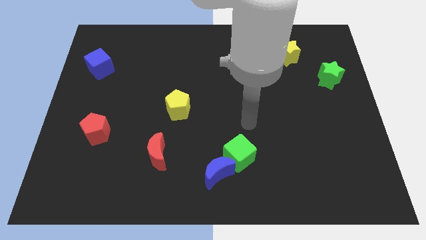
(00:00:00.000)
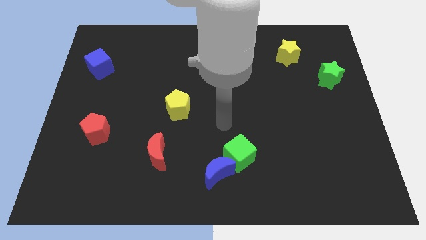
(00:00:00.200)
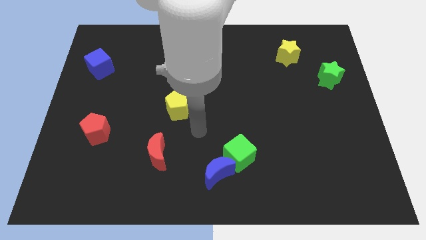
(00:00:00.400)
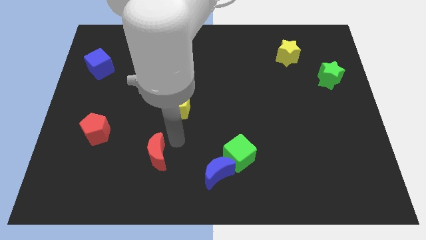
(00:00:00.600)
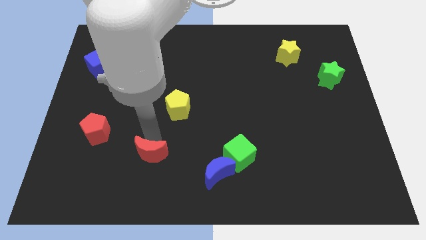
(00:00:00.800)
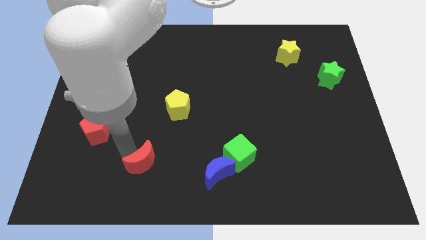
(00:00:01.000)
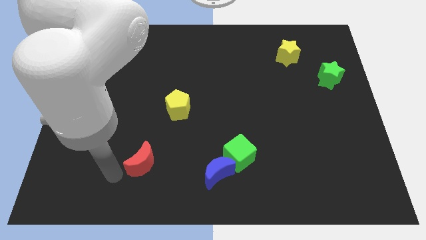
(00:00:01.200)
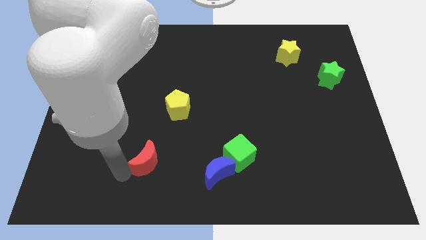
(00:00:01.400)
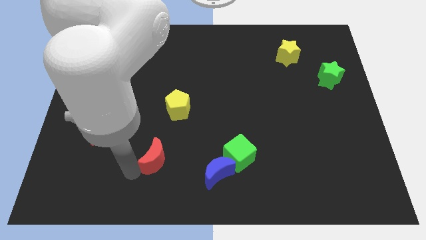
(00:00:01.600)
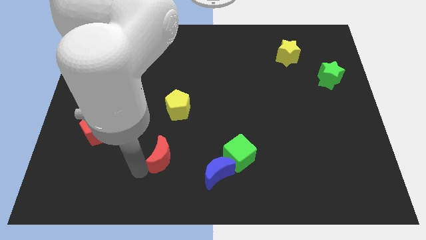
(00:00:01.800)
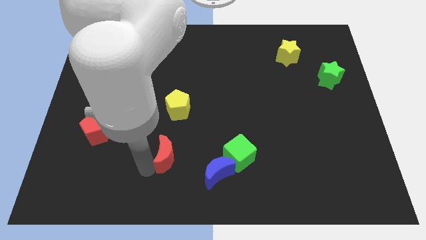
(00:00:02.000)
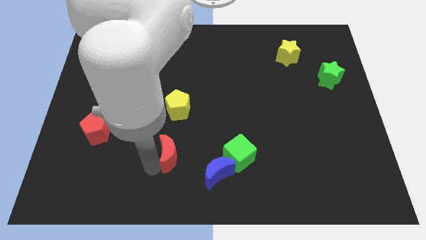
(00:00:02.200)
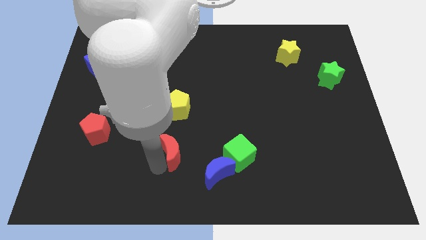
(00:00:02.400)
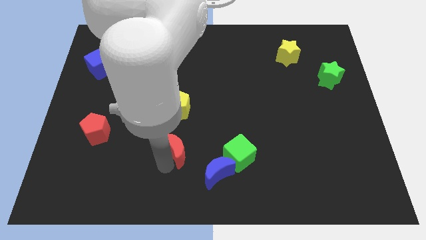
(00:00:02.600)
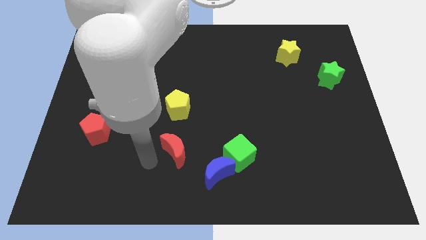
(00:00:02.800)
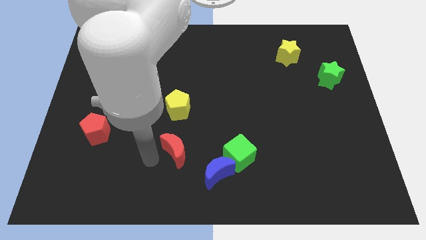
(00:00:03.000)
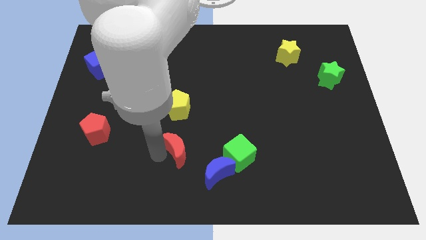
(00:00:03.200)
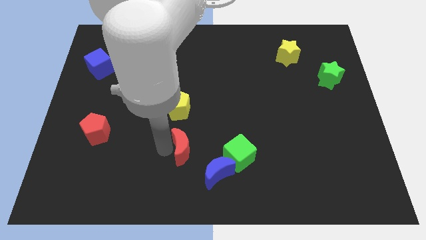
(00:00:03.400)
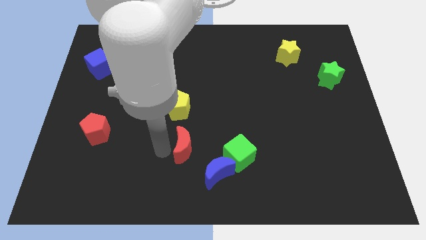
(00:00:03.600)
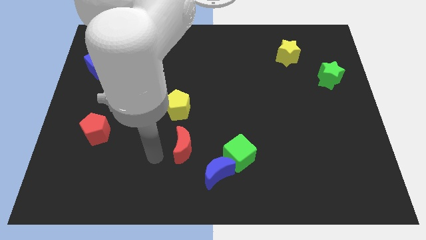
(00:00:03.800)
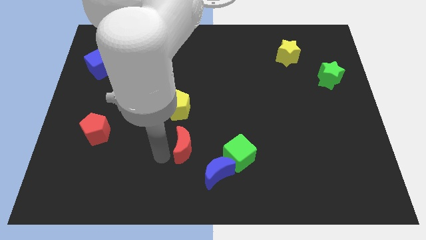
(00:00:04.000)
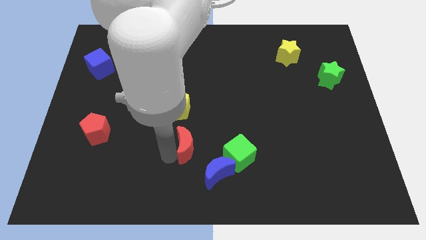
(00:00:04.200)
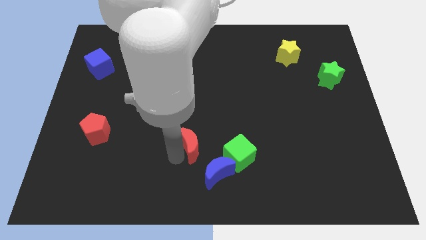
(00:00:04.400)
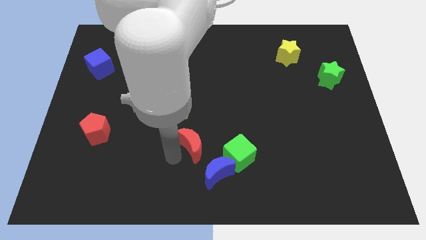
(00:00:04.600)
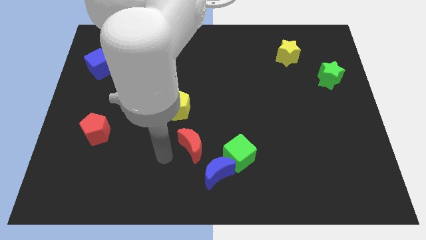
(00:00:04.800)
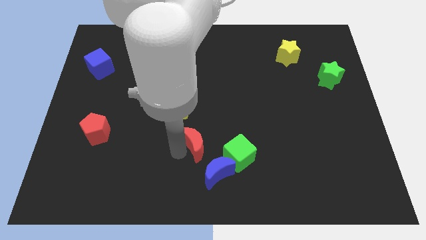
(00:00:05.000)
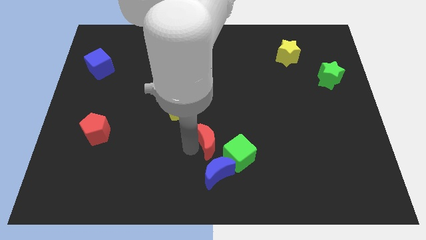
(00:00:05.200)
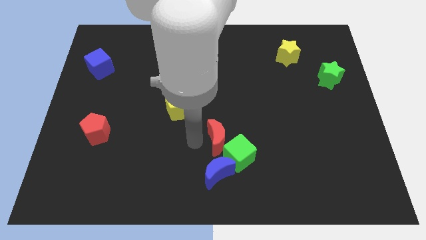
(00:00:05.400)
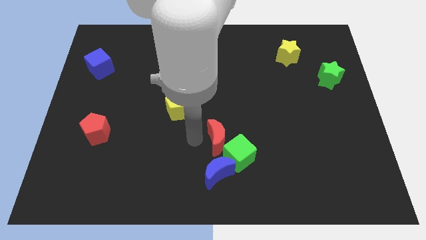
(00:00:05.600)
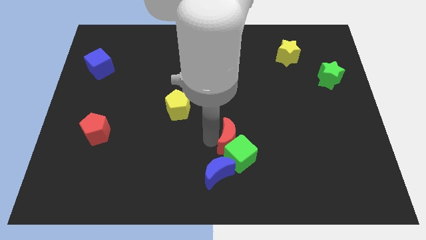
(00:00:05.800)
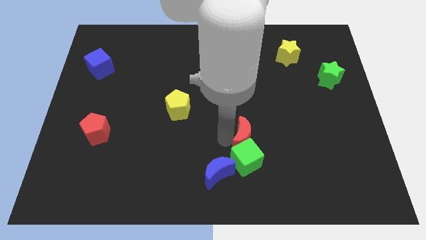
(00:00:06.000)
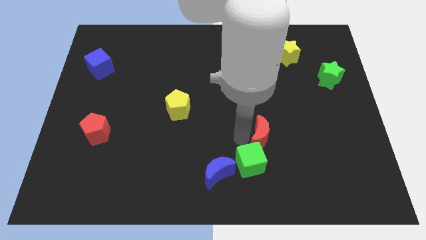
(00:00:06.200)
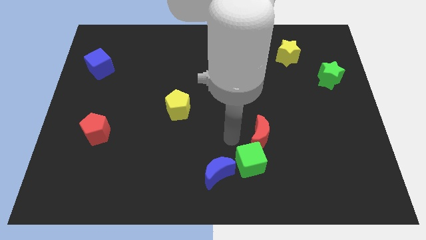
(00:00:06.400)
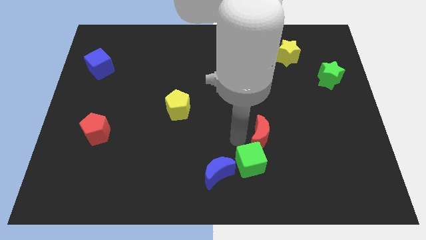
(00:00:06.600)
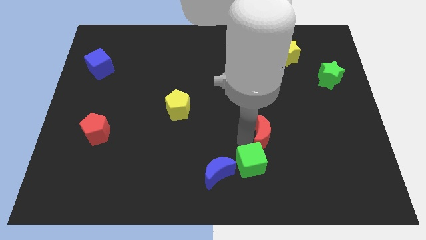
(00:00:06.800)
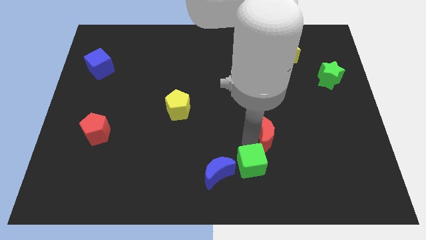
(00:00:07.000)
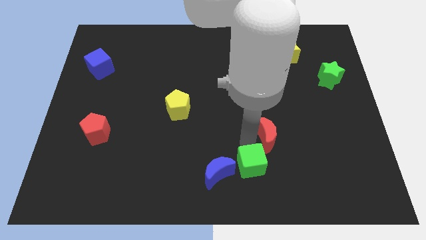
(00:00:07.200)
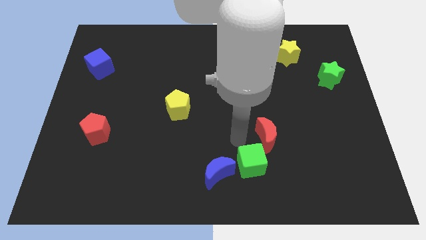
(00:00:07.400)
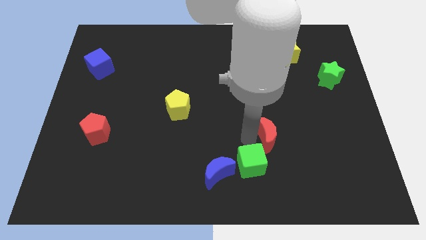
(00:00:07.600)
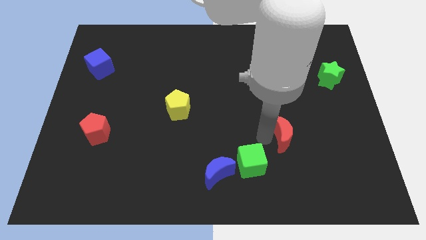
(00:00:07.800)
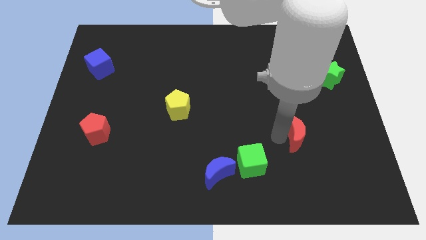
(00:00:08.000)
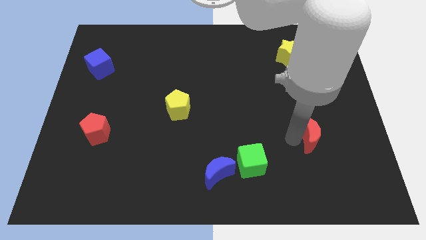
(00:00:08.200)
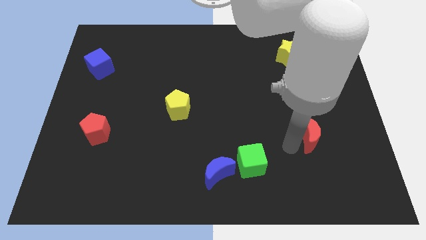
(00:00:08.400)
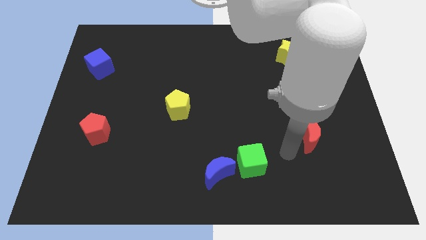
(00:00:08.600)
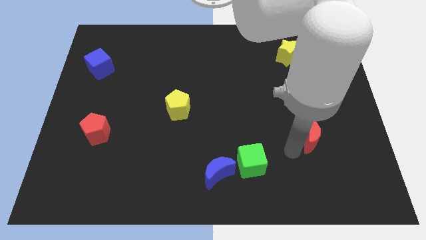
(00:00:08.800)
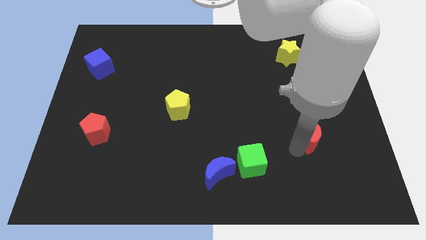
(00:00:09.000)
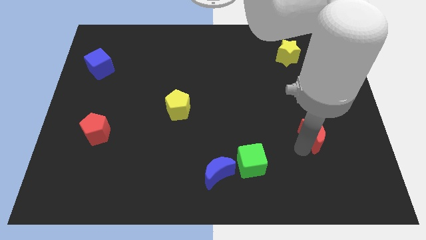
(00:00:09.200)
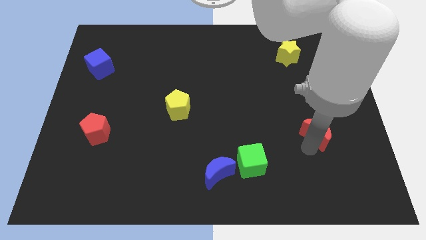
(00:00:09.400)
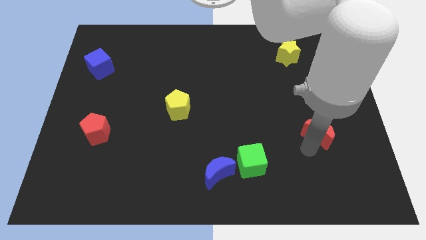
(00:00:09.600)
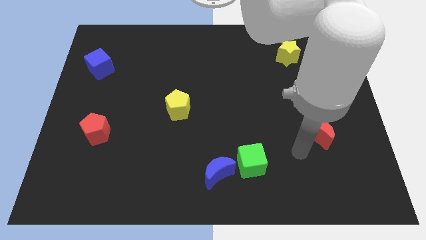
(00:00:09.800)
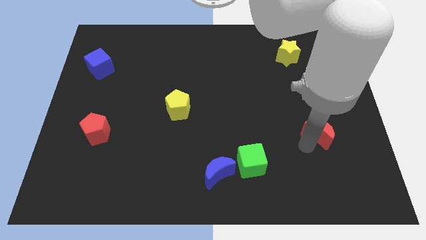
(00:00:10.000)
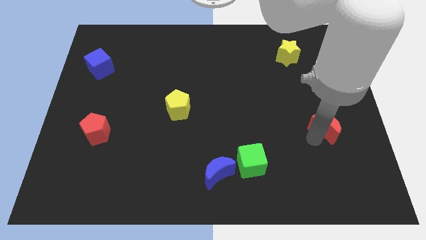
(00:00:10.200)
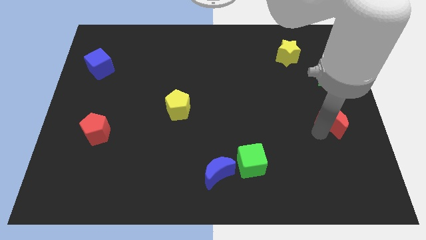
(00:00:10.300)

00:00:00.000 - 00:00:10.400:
put the red moon to the right side of the board

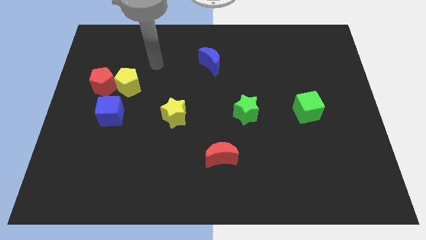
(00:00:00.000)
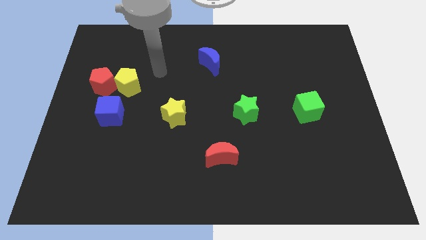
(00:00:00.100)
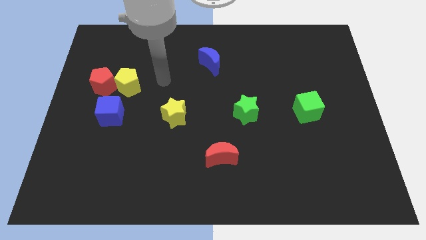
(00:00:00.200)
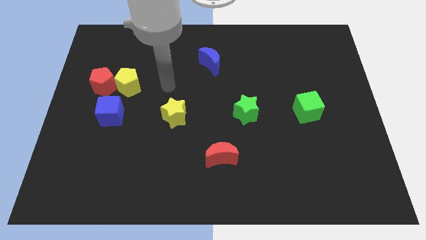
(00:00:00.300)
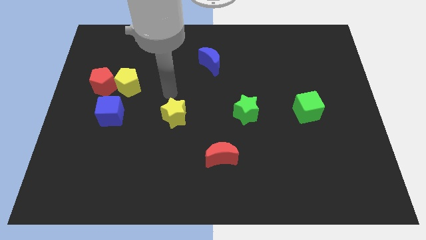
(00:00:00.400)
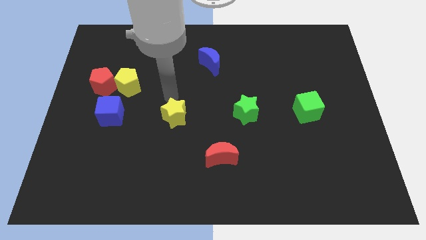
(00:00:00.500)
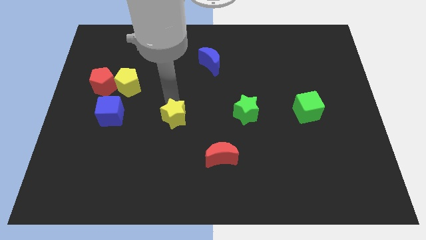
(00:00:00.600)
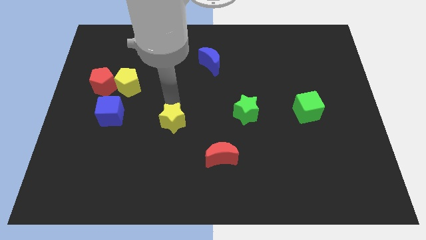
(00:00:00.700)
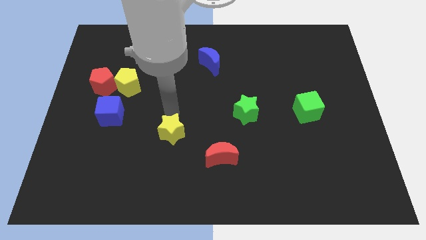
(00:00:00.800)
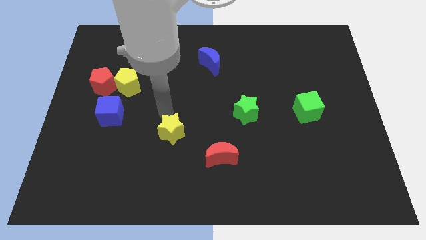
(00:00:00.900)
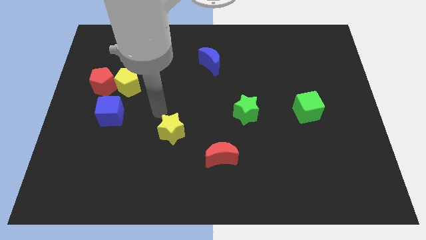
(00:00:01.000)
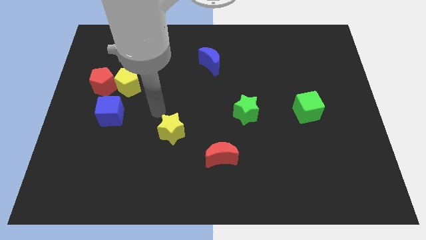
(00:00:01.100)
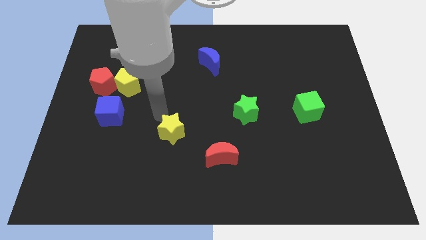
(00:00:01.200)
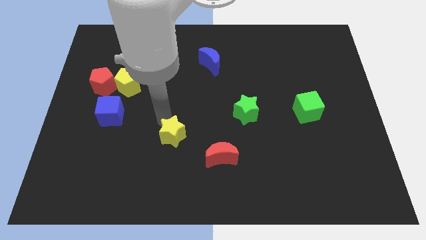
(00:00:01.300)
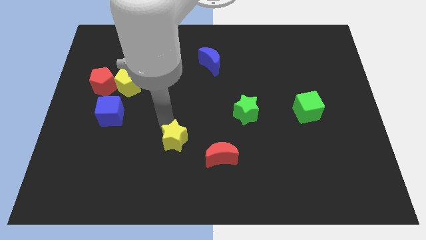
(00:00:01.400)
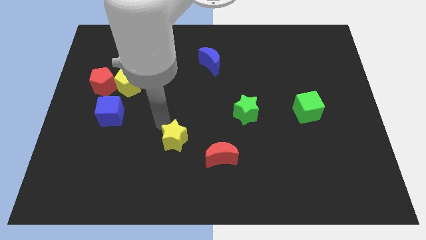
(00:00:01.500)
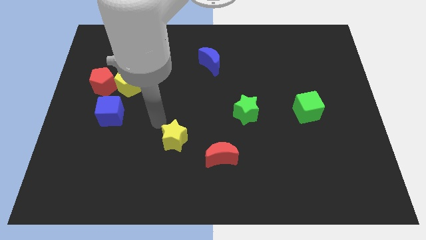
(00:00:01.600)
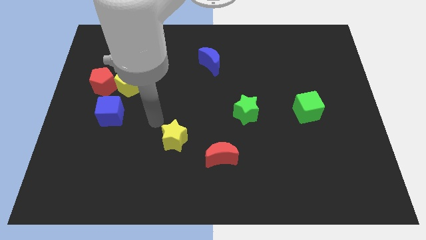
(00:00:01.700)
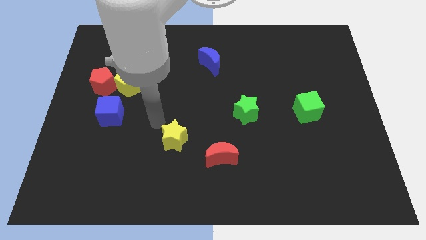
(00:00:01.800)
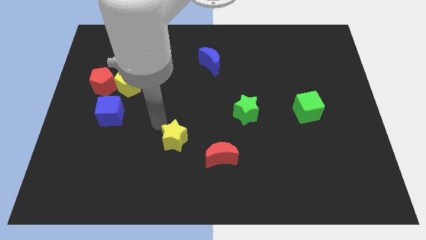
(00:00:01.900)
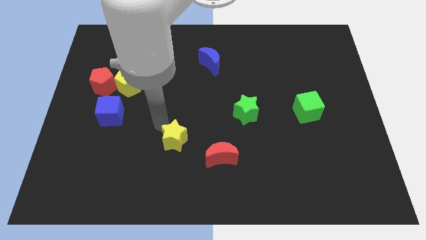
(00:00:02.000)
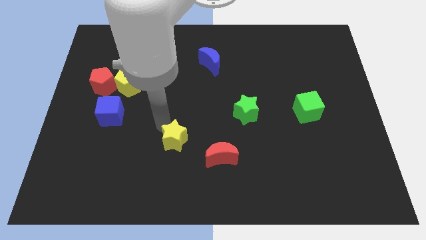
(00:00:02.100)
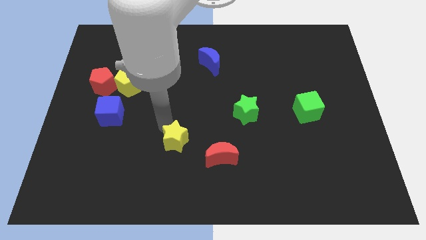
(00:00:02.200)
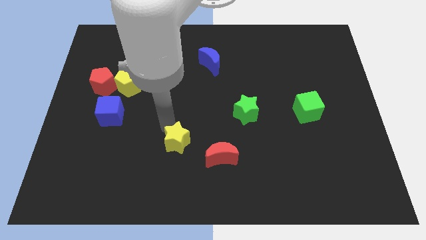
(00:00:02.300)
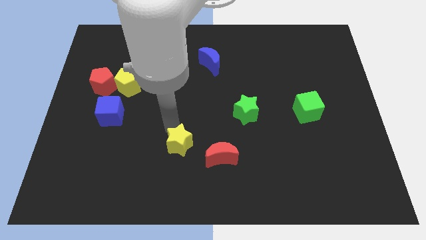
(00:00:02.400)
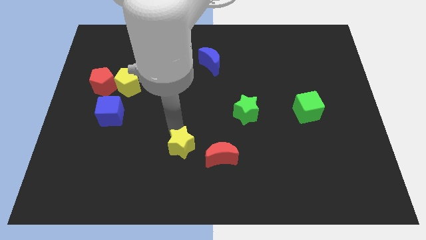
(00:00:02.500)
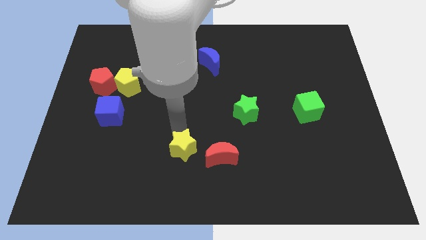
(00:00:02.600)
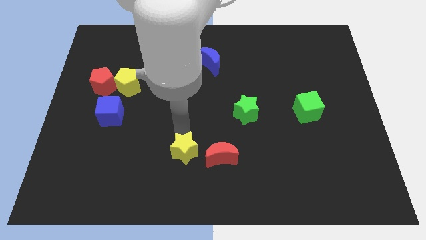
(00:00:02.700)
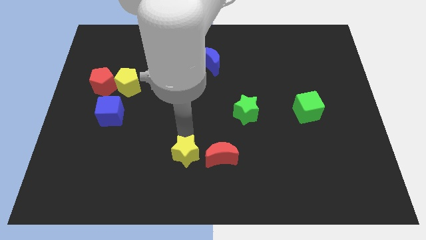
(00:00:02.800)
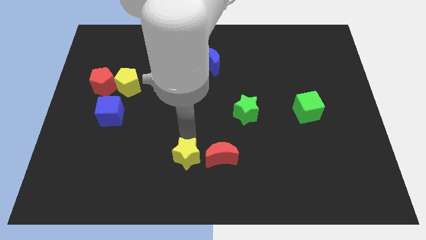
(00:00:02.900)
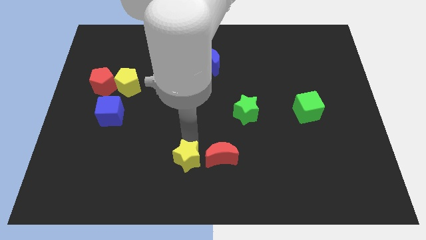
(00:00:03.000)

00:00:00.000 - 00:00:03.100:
push the yellow star to the bottom
